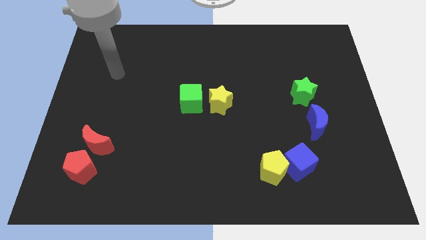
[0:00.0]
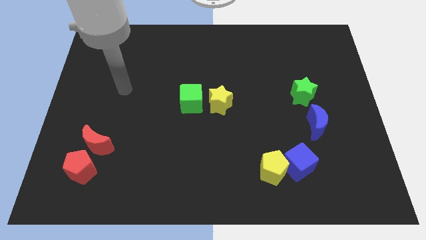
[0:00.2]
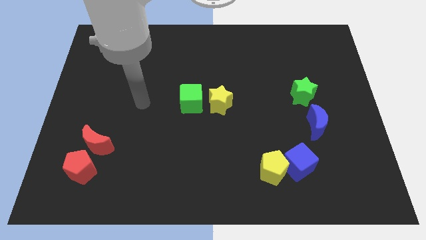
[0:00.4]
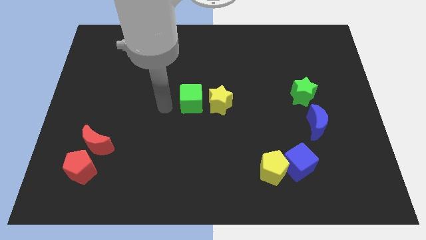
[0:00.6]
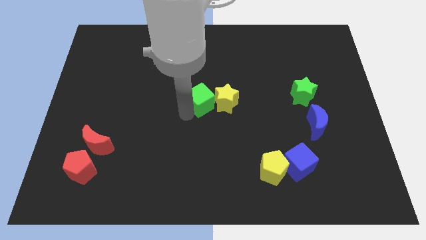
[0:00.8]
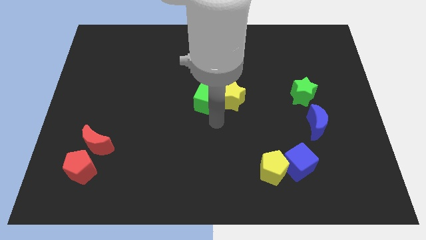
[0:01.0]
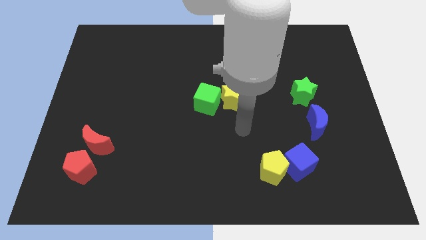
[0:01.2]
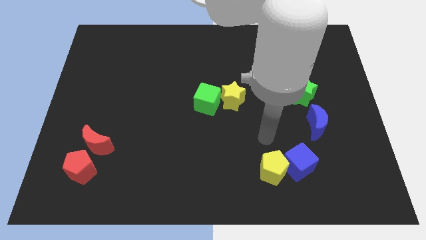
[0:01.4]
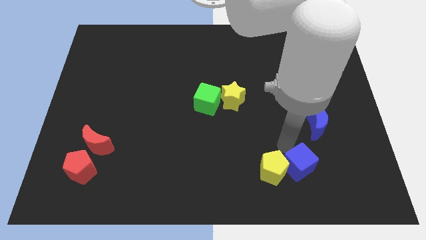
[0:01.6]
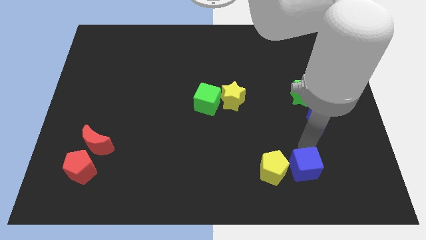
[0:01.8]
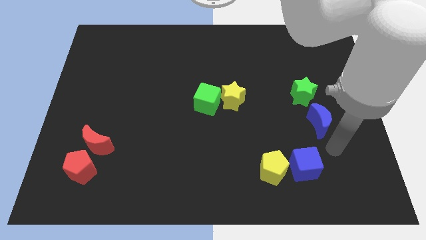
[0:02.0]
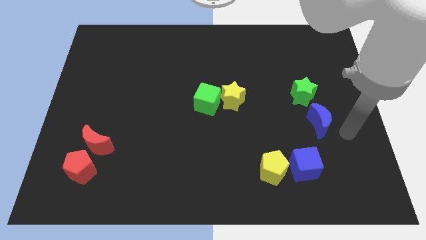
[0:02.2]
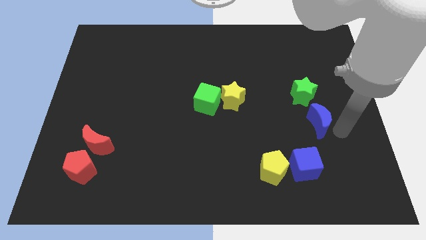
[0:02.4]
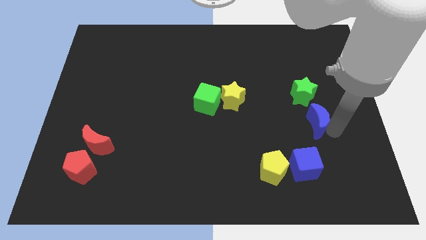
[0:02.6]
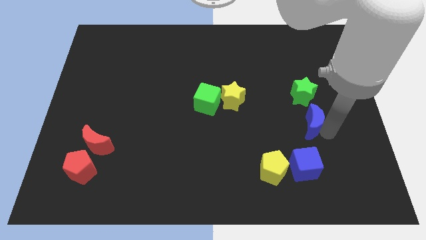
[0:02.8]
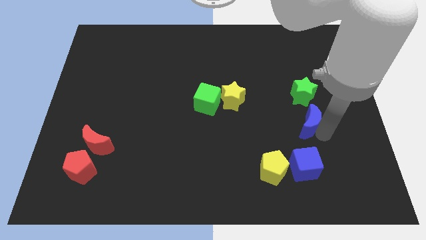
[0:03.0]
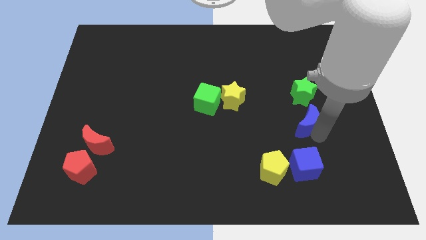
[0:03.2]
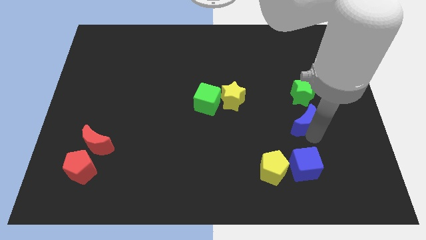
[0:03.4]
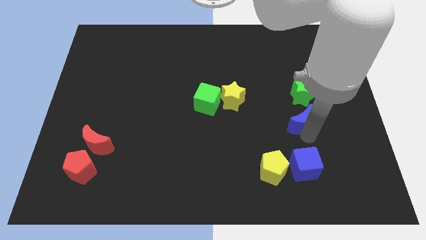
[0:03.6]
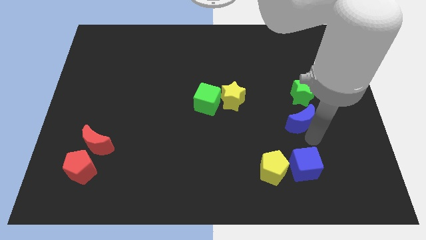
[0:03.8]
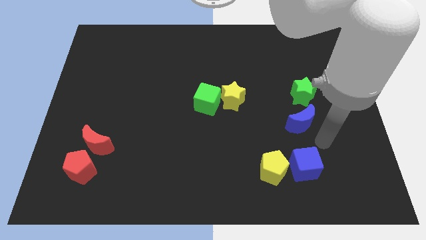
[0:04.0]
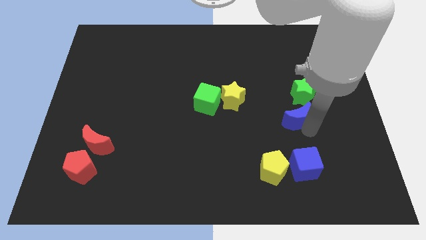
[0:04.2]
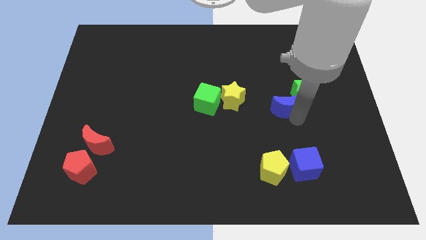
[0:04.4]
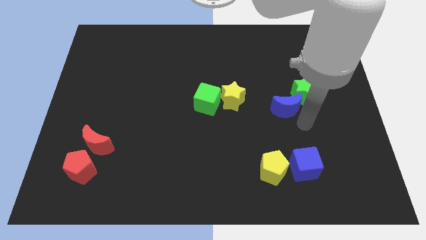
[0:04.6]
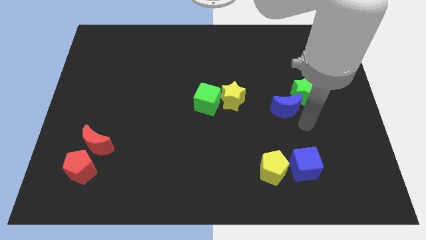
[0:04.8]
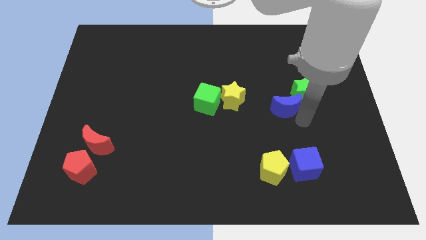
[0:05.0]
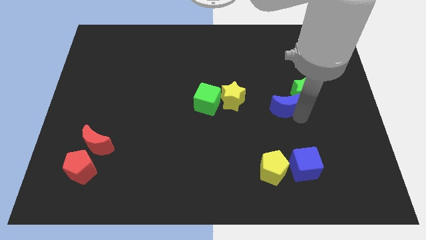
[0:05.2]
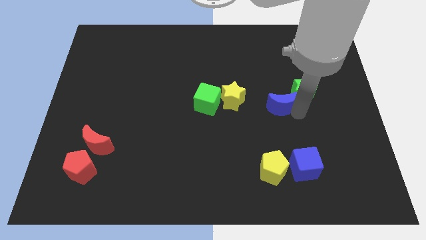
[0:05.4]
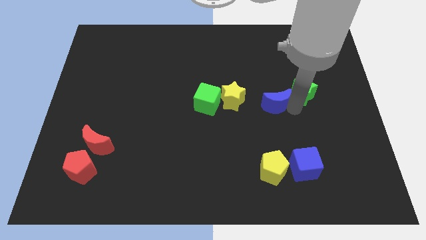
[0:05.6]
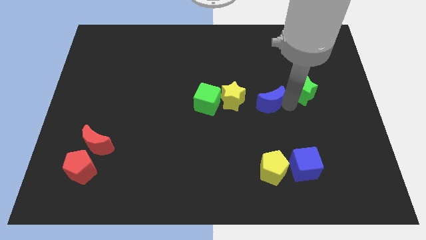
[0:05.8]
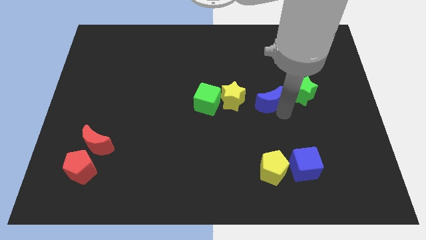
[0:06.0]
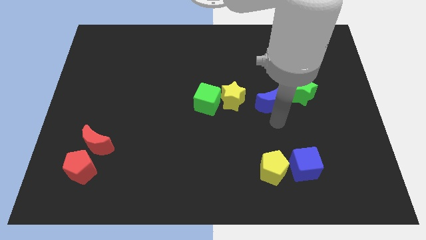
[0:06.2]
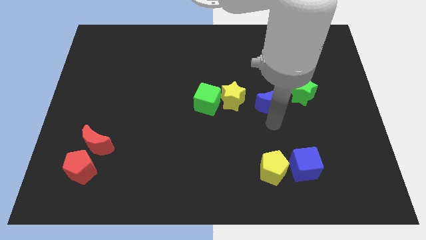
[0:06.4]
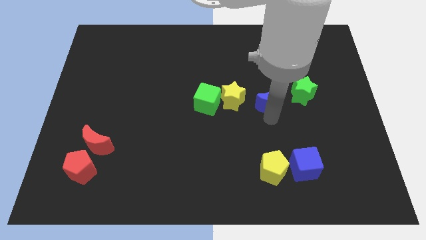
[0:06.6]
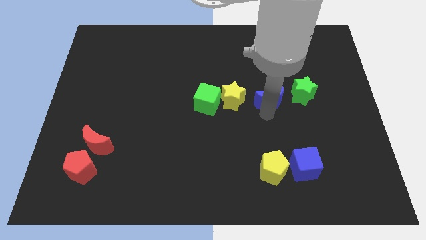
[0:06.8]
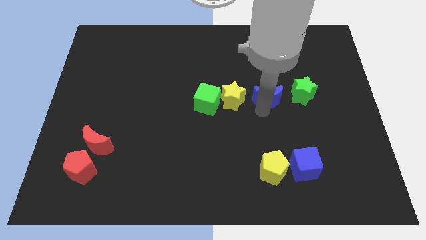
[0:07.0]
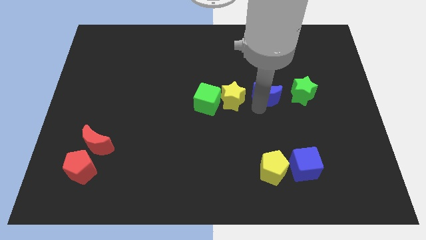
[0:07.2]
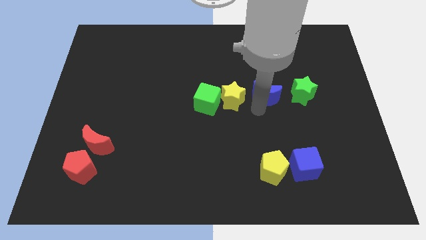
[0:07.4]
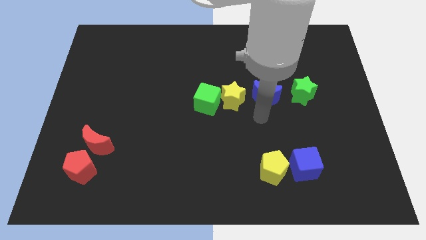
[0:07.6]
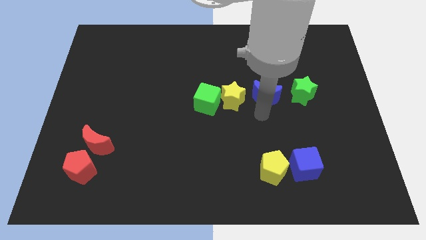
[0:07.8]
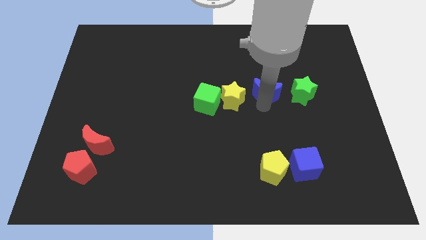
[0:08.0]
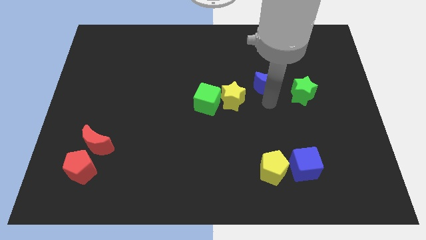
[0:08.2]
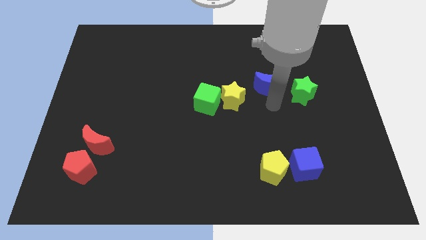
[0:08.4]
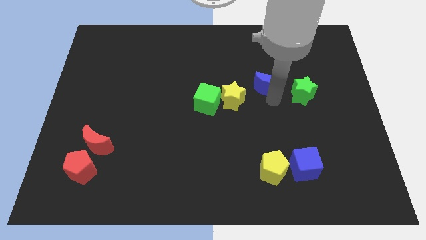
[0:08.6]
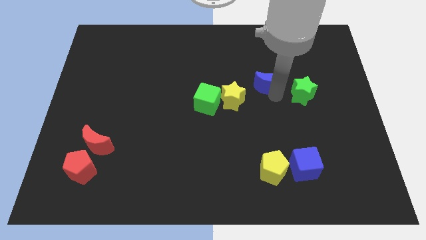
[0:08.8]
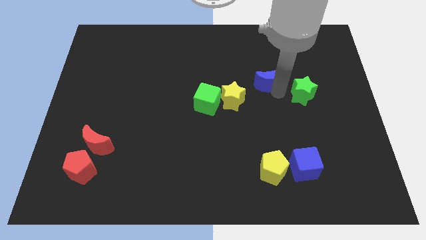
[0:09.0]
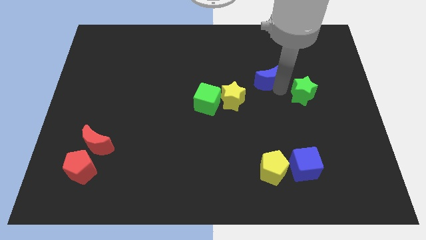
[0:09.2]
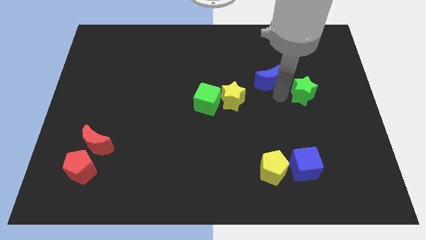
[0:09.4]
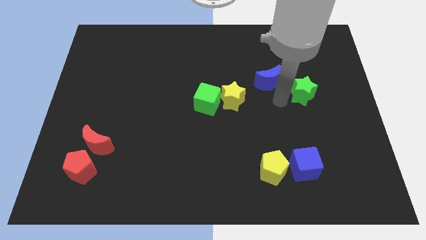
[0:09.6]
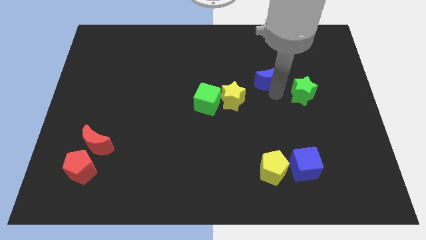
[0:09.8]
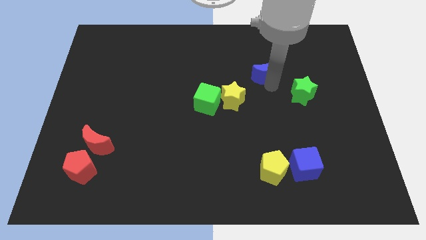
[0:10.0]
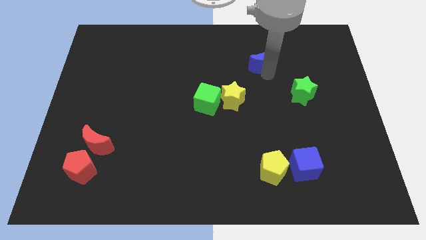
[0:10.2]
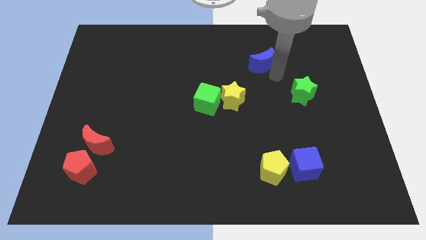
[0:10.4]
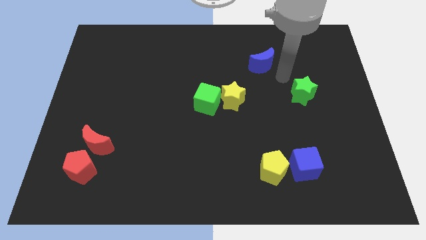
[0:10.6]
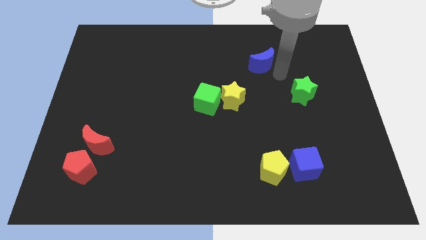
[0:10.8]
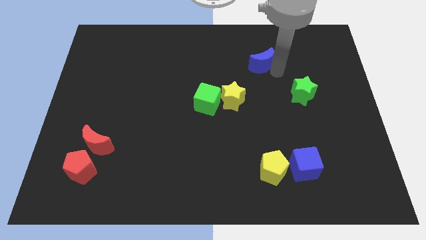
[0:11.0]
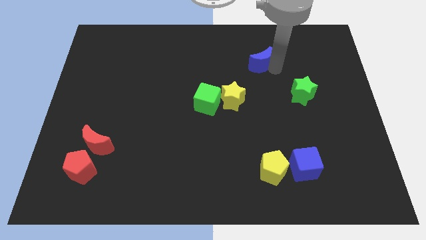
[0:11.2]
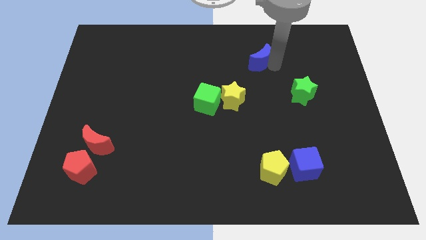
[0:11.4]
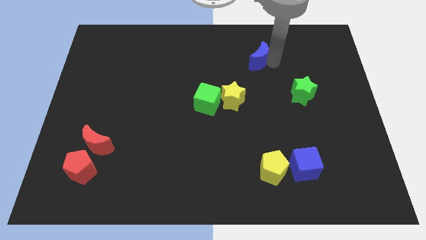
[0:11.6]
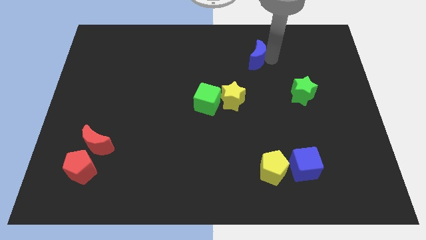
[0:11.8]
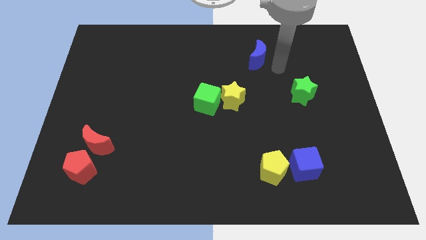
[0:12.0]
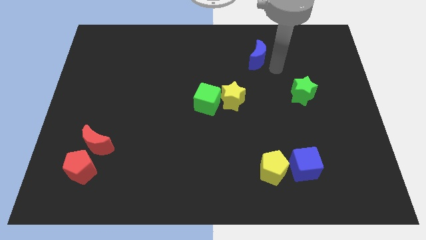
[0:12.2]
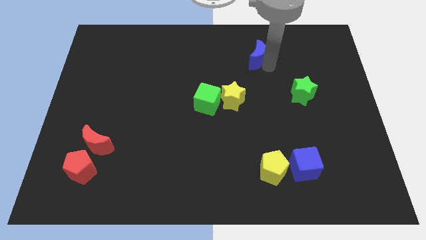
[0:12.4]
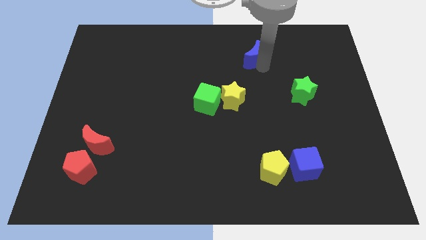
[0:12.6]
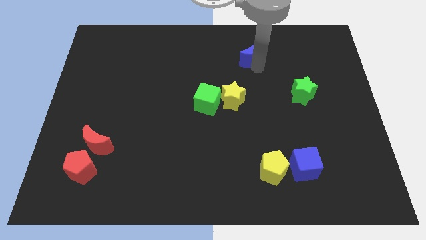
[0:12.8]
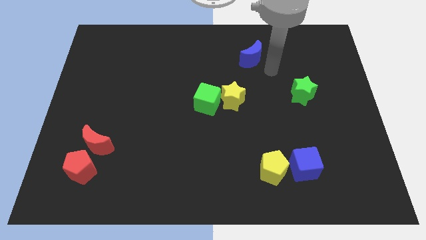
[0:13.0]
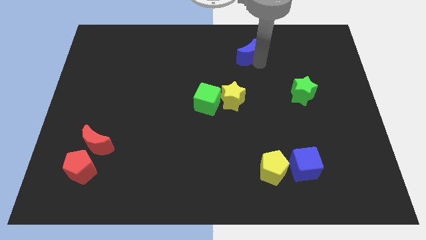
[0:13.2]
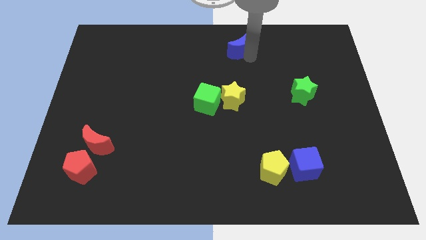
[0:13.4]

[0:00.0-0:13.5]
slide the blue moon to the top
